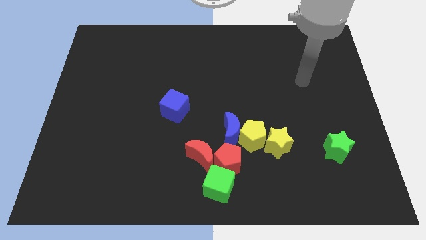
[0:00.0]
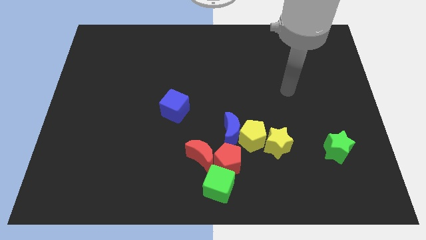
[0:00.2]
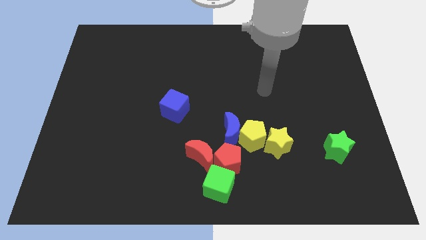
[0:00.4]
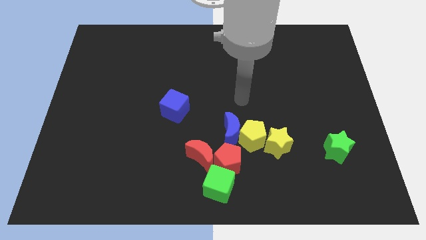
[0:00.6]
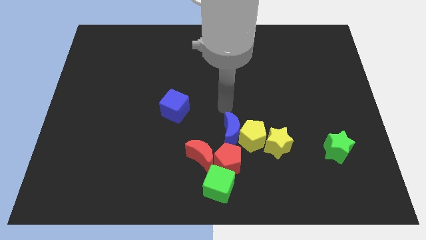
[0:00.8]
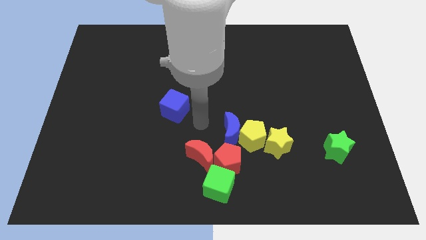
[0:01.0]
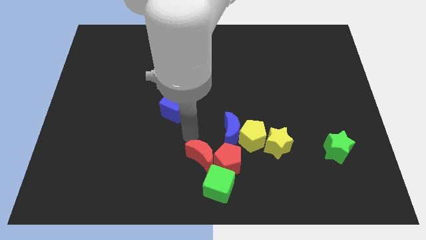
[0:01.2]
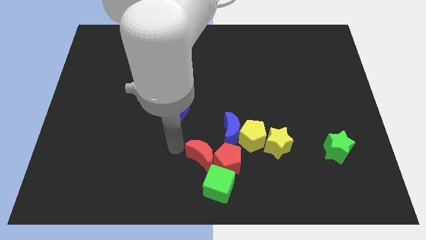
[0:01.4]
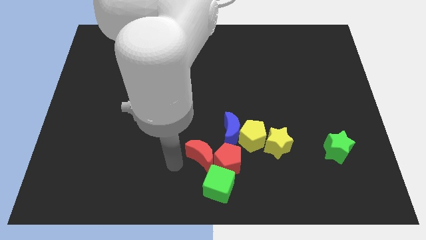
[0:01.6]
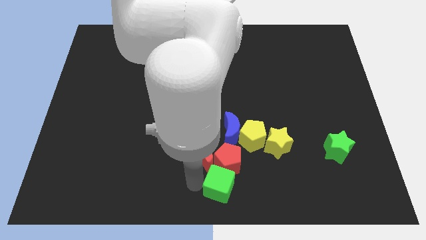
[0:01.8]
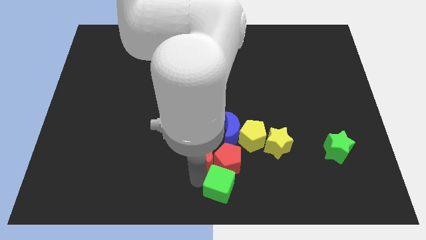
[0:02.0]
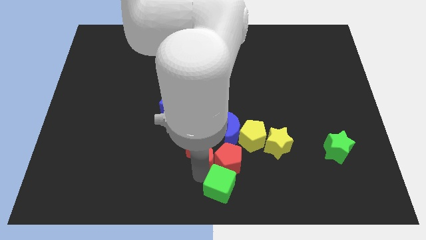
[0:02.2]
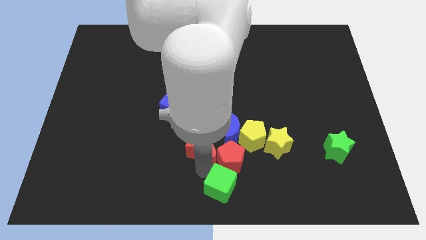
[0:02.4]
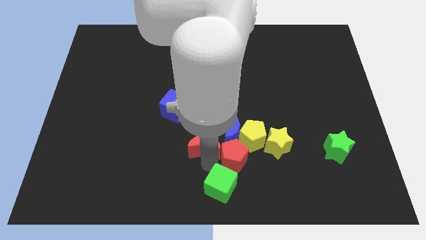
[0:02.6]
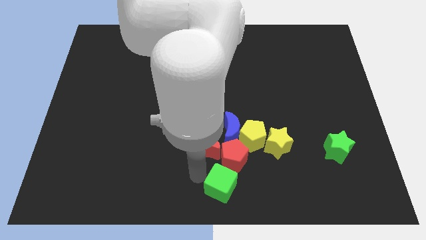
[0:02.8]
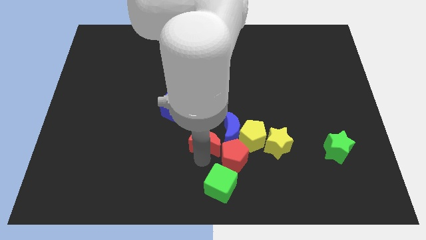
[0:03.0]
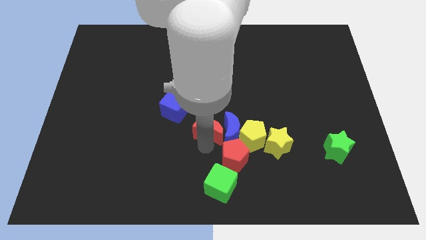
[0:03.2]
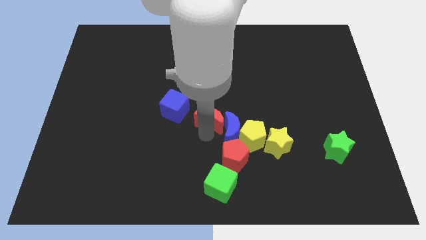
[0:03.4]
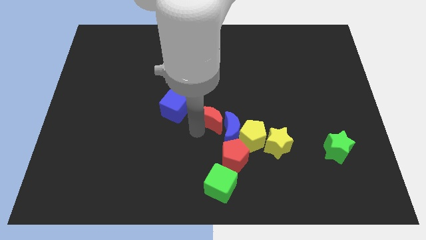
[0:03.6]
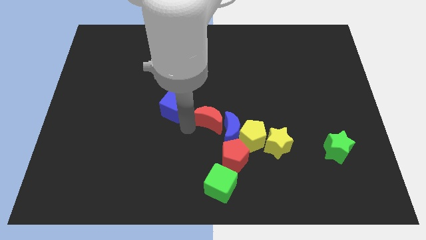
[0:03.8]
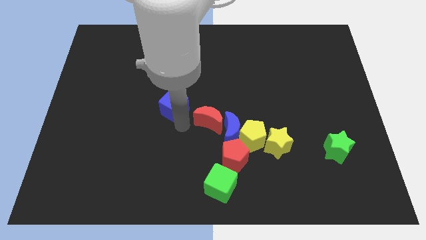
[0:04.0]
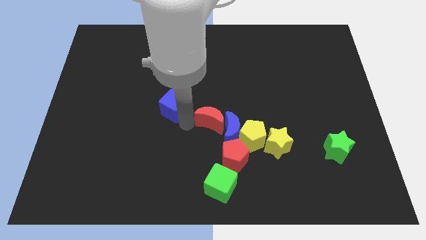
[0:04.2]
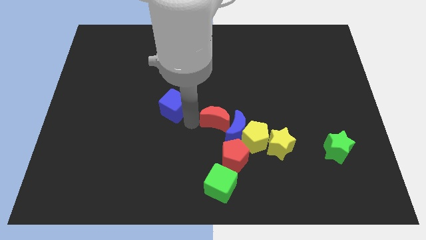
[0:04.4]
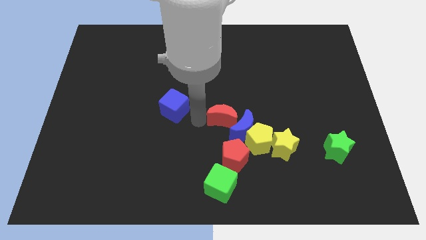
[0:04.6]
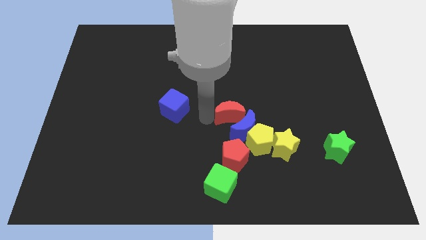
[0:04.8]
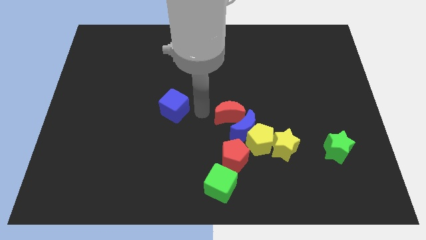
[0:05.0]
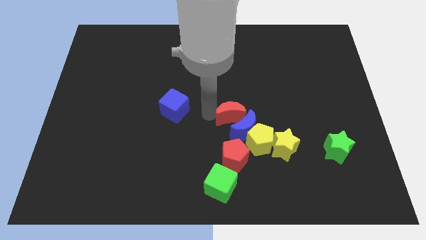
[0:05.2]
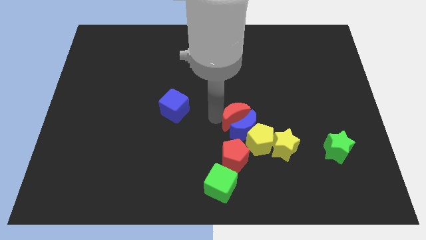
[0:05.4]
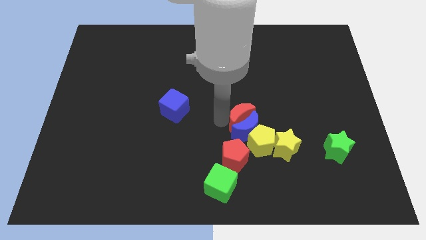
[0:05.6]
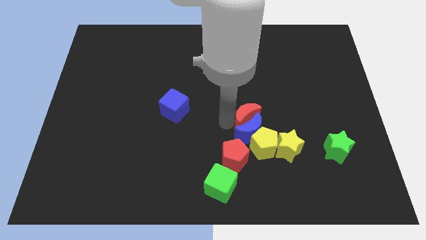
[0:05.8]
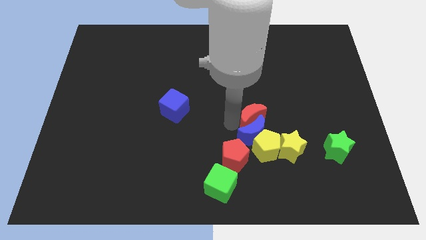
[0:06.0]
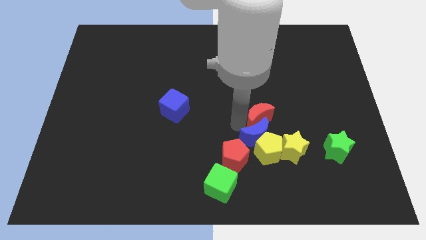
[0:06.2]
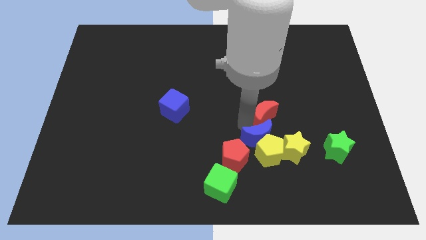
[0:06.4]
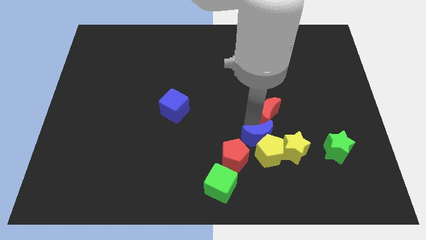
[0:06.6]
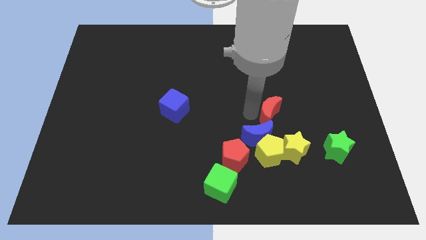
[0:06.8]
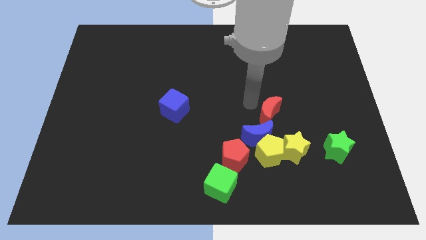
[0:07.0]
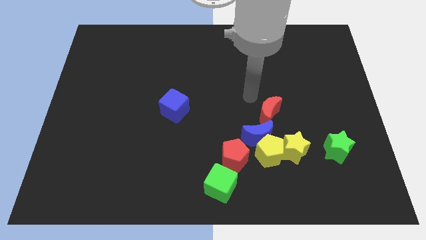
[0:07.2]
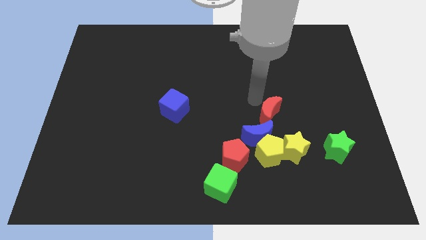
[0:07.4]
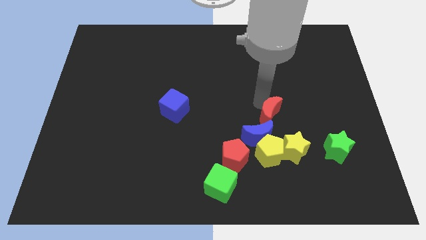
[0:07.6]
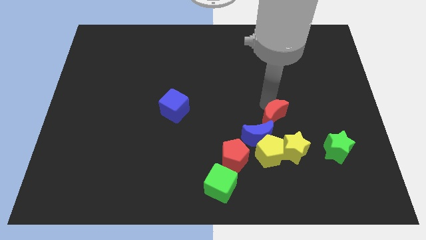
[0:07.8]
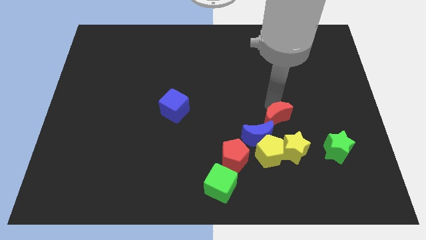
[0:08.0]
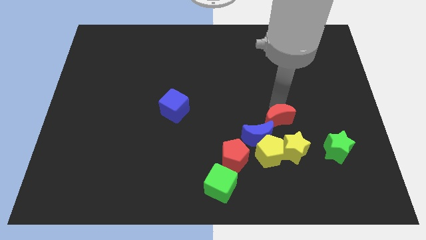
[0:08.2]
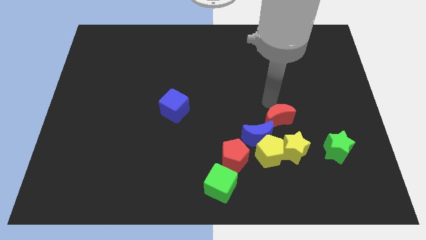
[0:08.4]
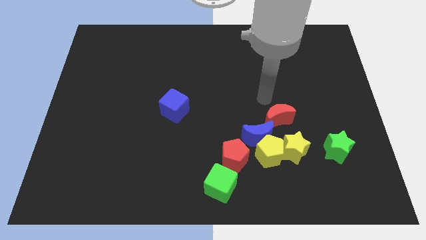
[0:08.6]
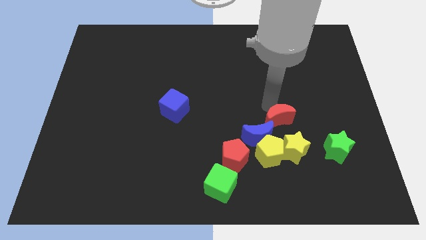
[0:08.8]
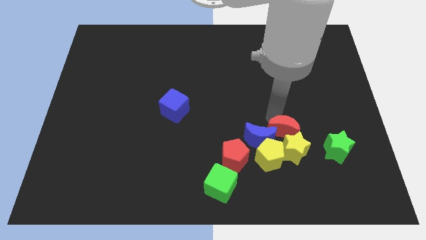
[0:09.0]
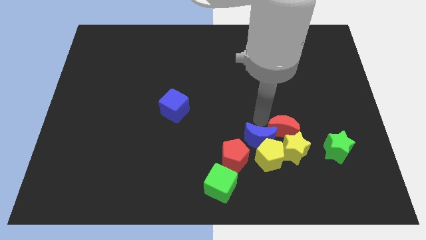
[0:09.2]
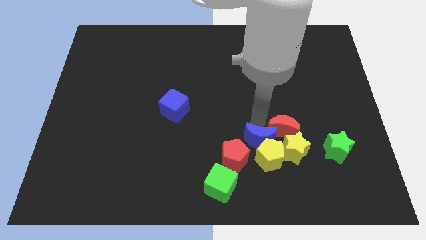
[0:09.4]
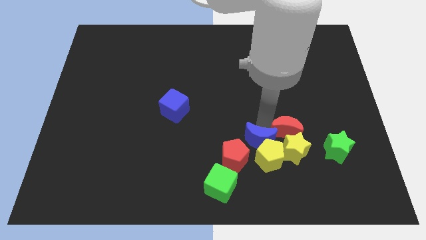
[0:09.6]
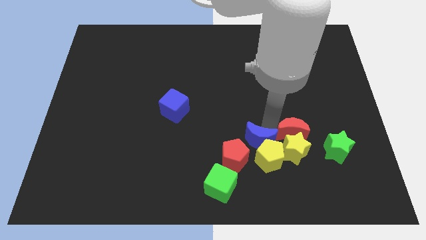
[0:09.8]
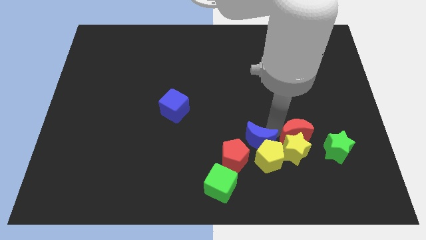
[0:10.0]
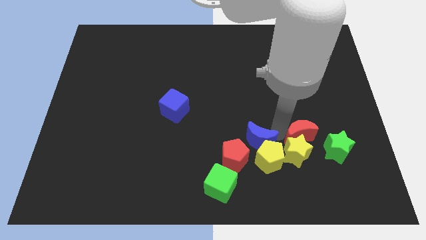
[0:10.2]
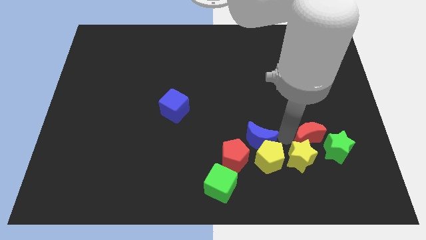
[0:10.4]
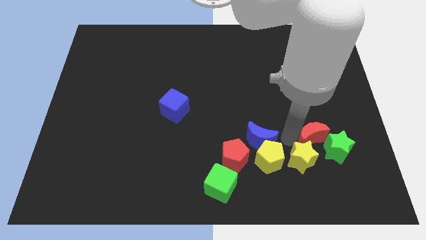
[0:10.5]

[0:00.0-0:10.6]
move the red moon close to the green star

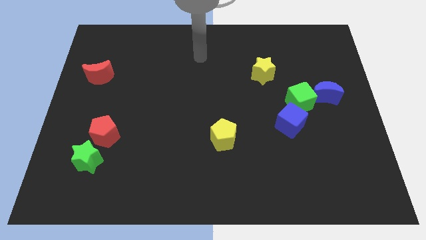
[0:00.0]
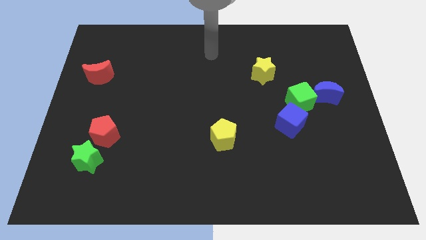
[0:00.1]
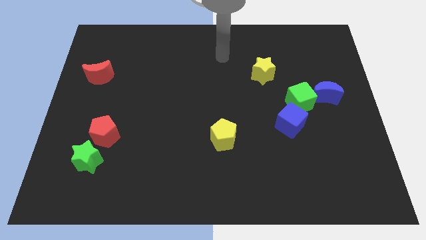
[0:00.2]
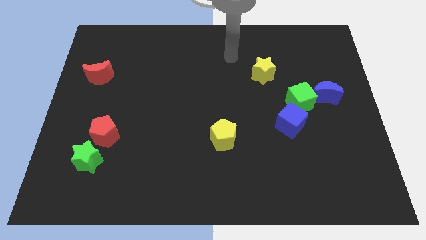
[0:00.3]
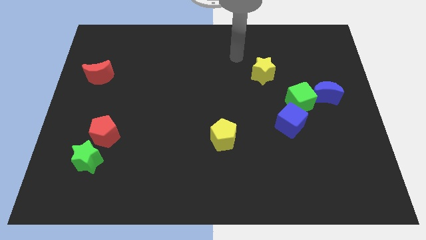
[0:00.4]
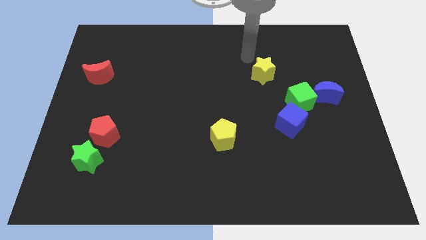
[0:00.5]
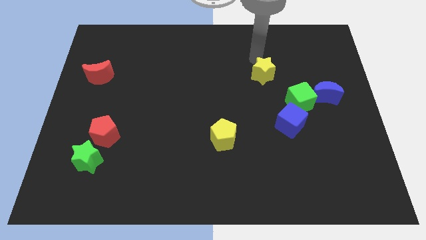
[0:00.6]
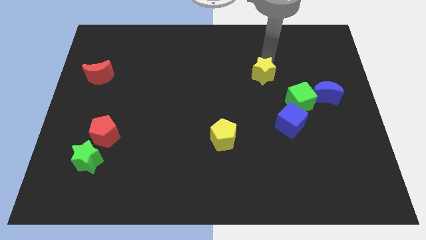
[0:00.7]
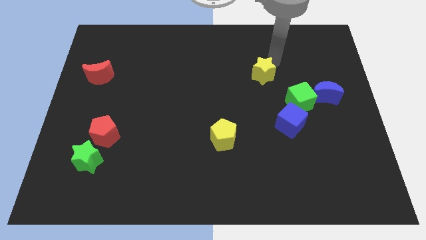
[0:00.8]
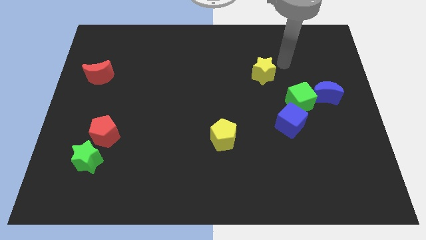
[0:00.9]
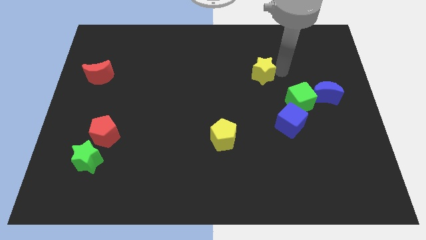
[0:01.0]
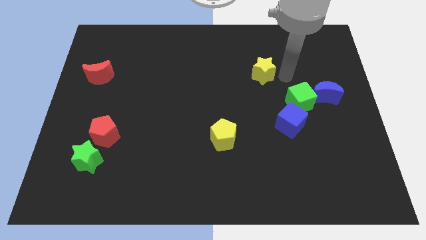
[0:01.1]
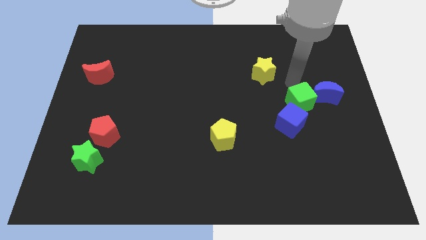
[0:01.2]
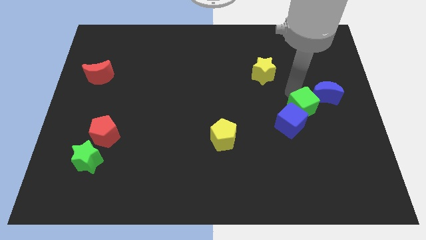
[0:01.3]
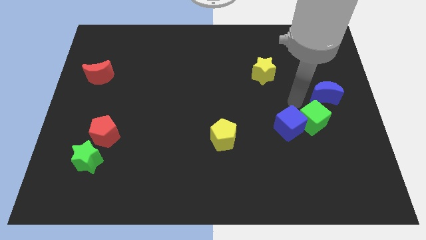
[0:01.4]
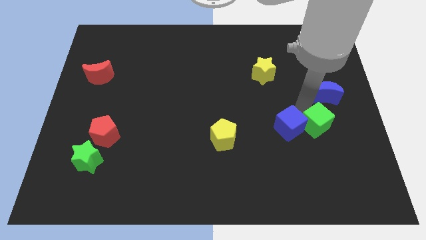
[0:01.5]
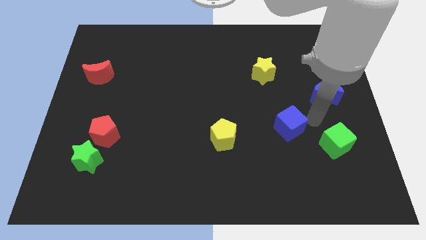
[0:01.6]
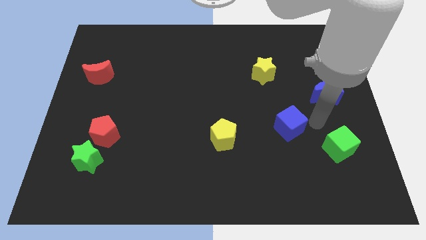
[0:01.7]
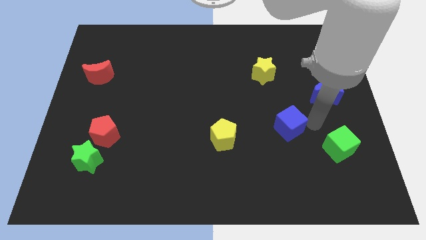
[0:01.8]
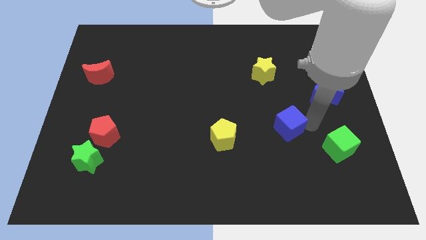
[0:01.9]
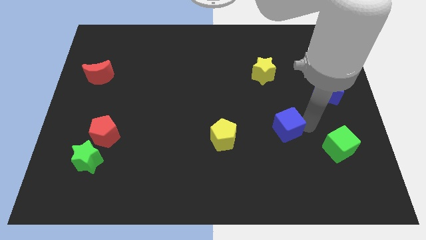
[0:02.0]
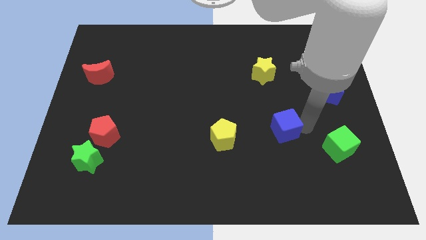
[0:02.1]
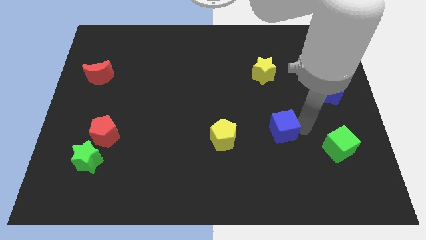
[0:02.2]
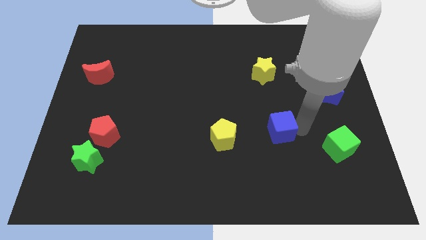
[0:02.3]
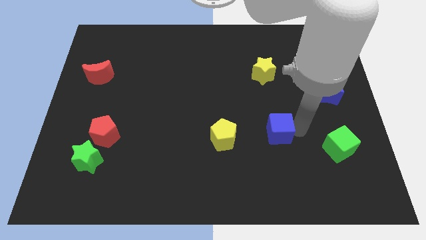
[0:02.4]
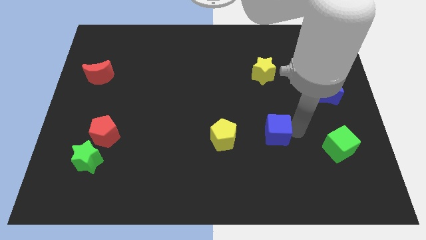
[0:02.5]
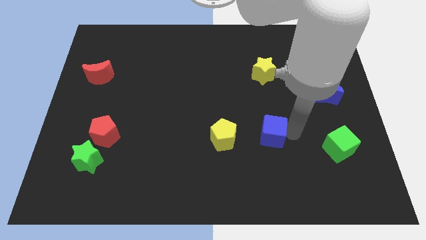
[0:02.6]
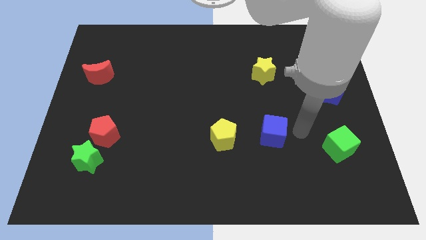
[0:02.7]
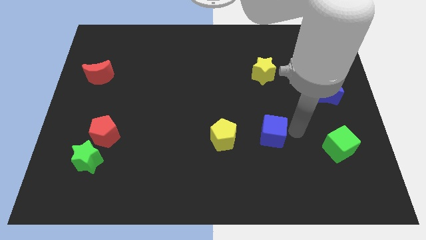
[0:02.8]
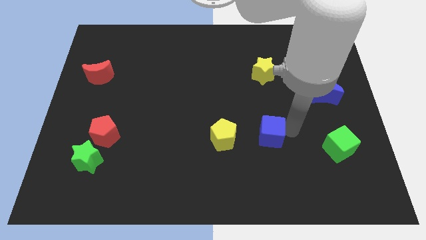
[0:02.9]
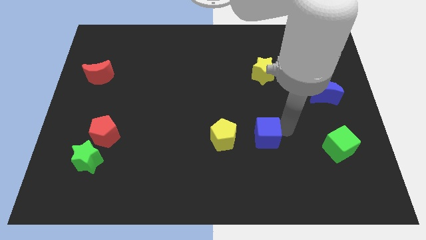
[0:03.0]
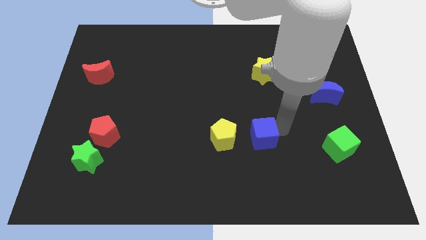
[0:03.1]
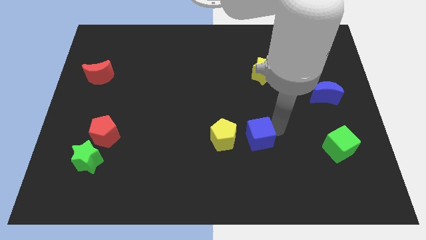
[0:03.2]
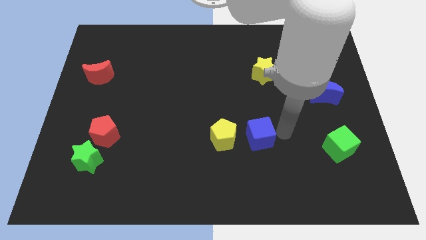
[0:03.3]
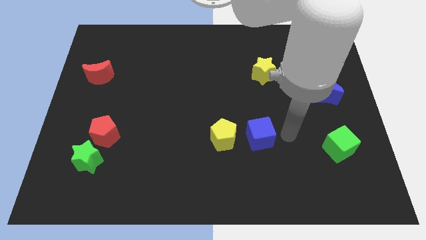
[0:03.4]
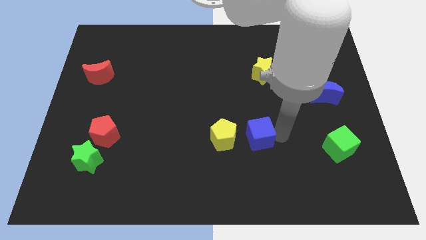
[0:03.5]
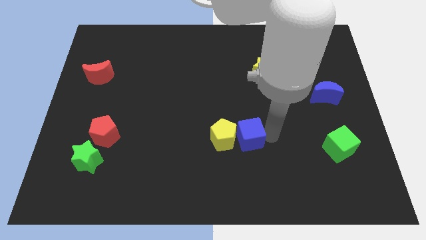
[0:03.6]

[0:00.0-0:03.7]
slide the blue cube next to the yellow pentagon
